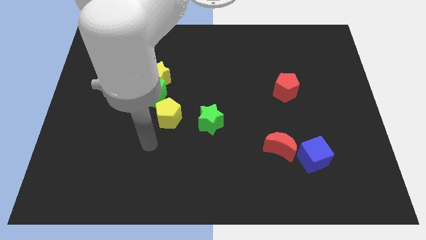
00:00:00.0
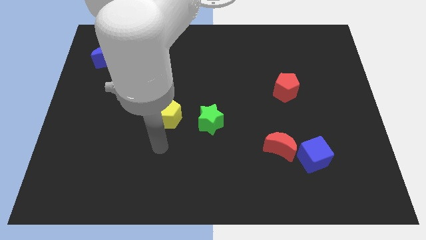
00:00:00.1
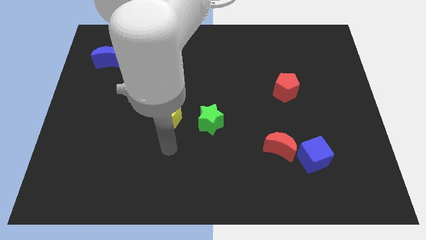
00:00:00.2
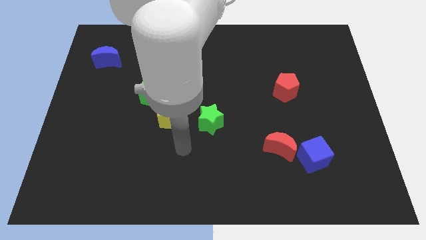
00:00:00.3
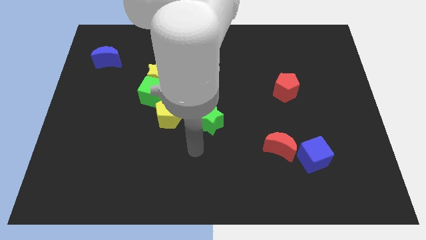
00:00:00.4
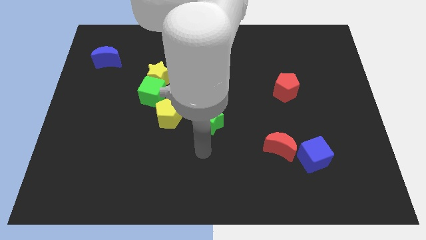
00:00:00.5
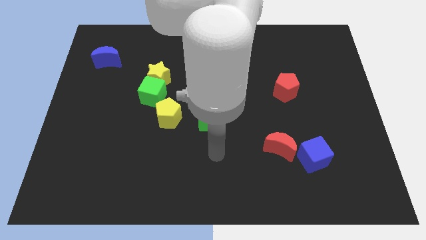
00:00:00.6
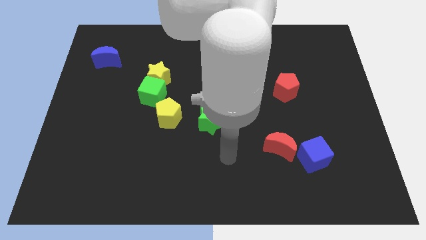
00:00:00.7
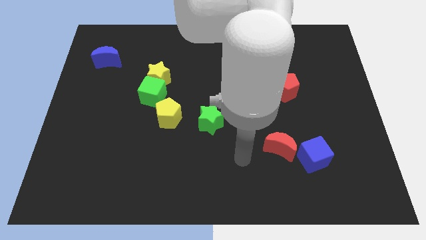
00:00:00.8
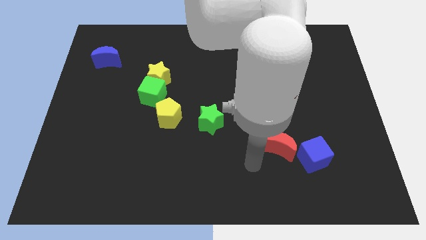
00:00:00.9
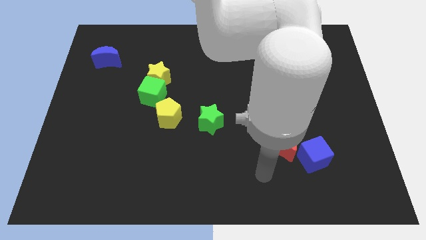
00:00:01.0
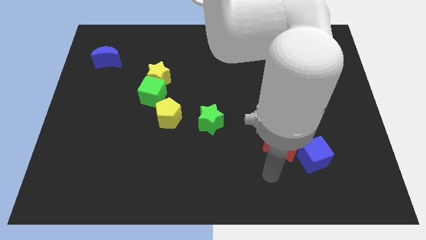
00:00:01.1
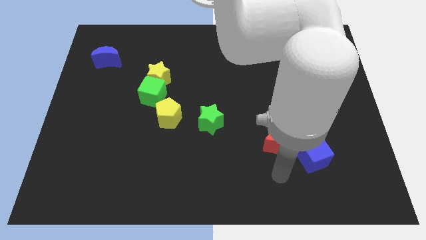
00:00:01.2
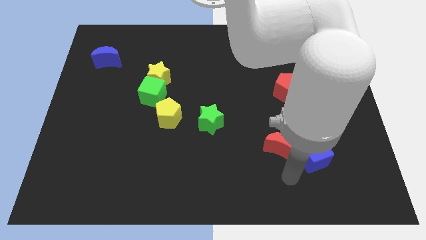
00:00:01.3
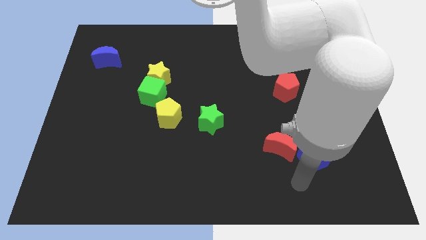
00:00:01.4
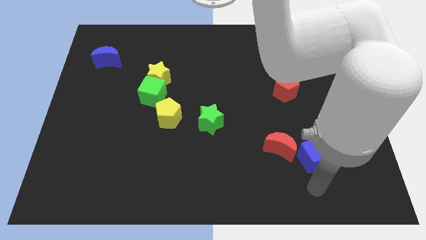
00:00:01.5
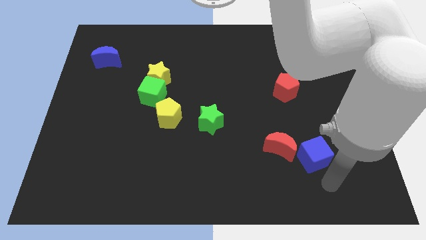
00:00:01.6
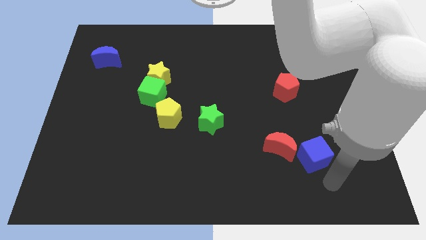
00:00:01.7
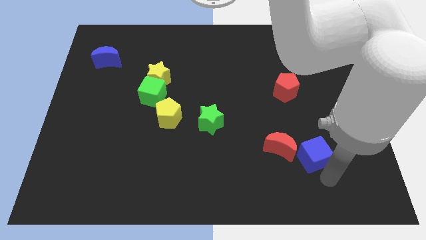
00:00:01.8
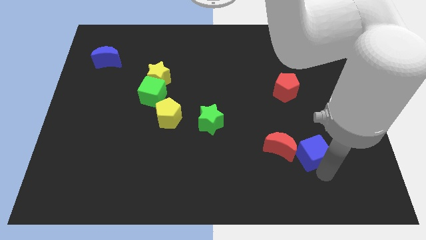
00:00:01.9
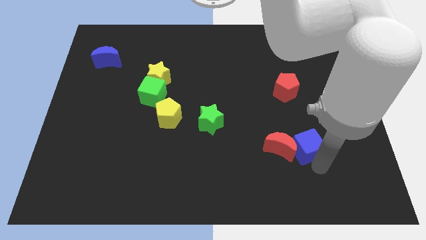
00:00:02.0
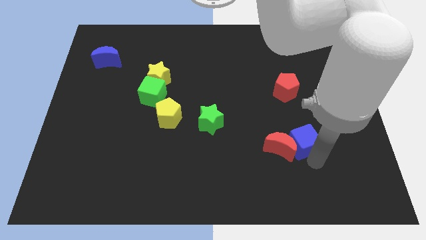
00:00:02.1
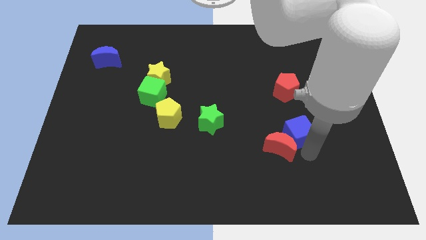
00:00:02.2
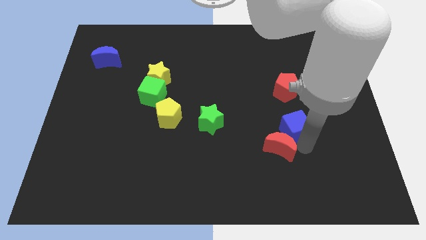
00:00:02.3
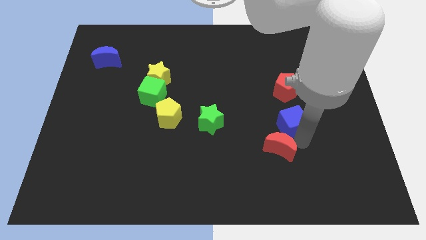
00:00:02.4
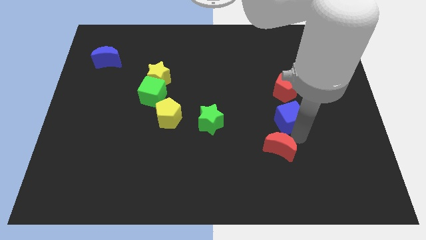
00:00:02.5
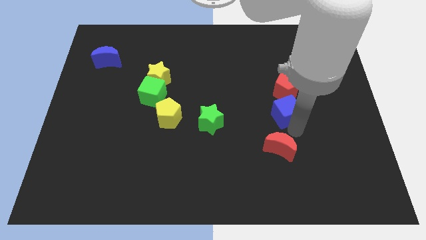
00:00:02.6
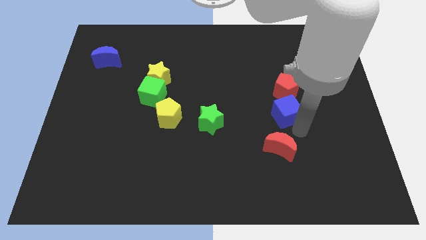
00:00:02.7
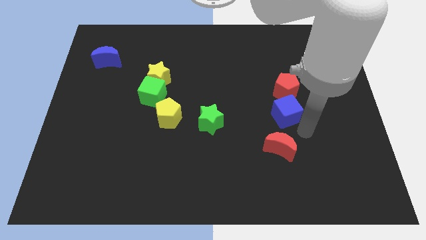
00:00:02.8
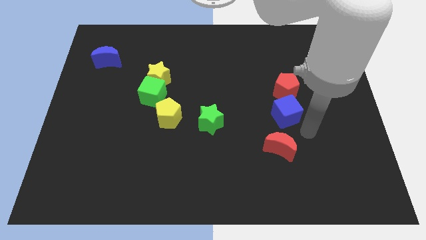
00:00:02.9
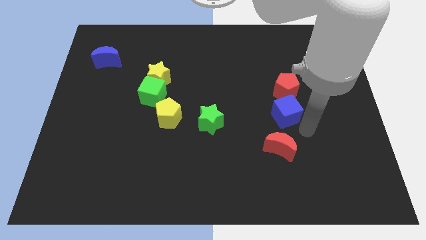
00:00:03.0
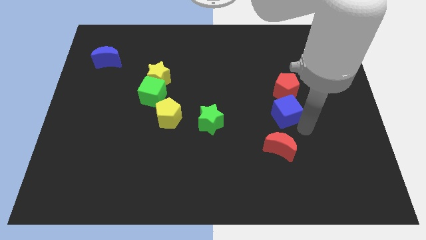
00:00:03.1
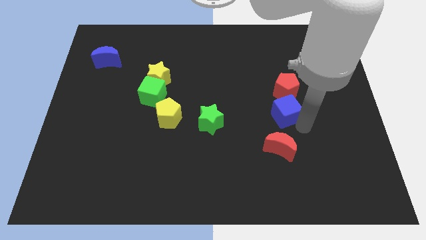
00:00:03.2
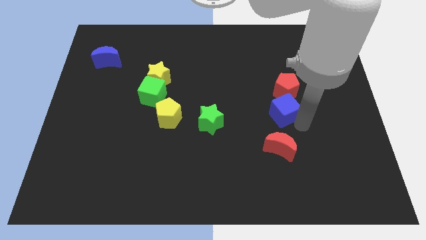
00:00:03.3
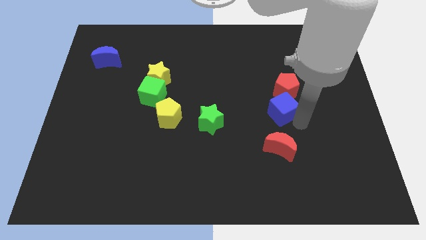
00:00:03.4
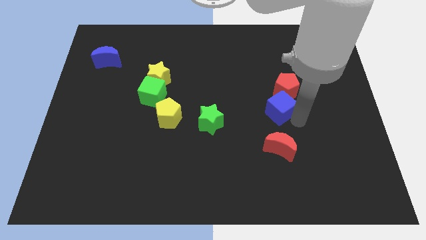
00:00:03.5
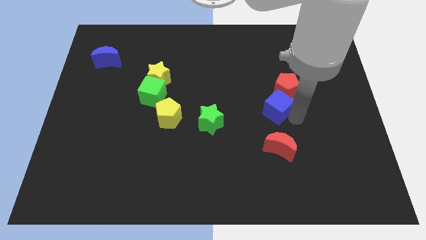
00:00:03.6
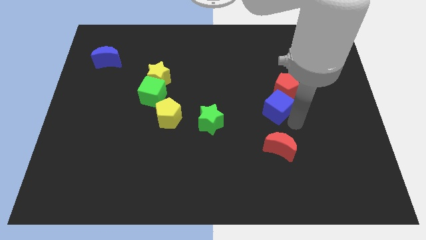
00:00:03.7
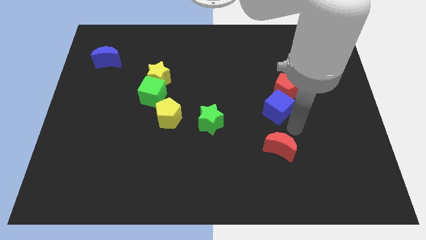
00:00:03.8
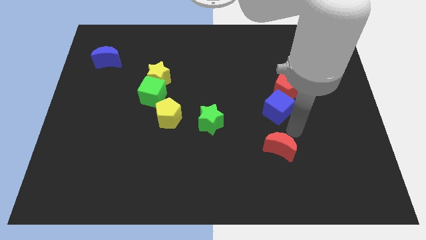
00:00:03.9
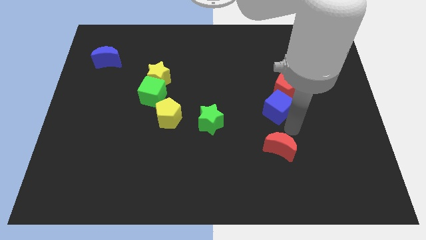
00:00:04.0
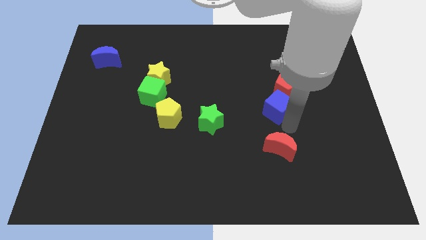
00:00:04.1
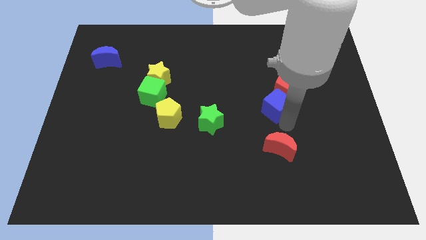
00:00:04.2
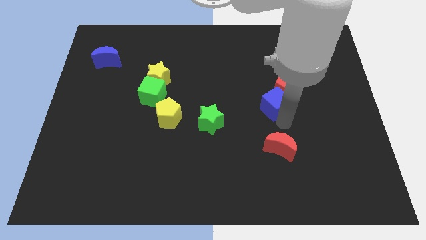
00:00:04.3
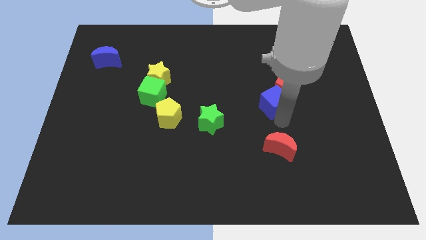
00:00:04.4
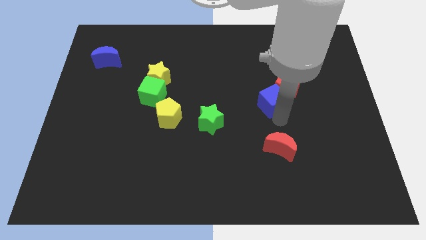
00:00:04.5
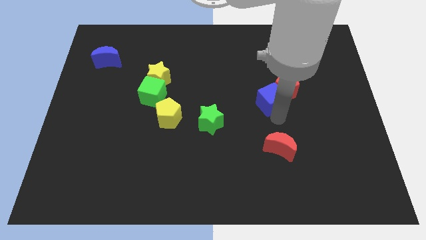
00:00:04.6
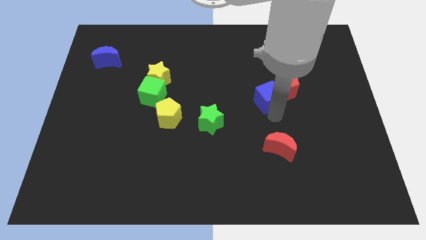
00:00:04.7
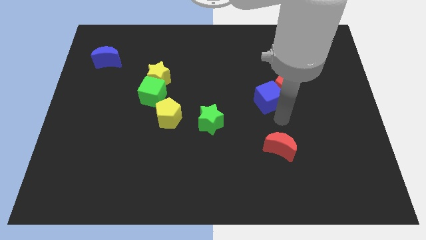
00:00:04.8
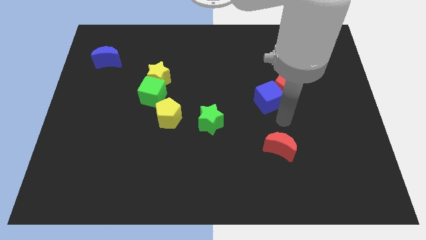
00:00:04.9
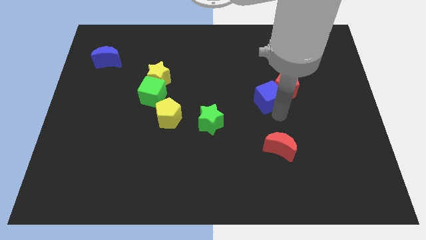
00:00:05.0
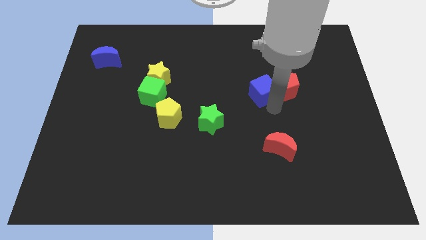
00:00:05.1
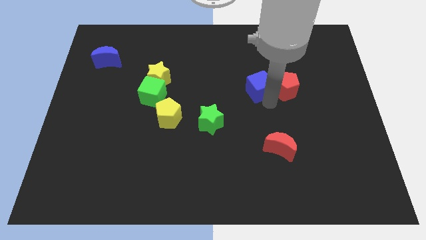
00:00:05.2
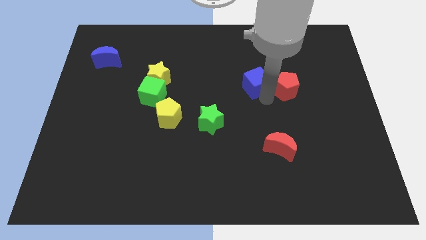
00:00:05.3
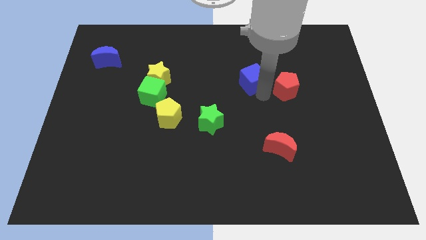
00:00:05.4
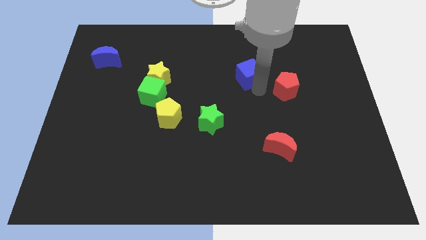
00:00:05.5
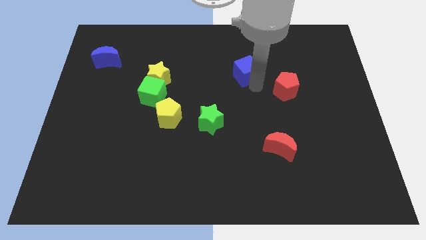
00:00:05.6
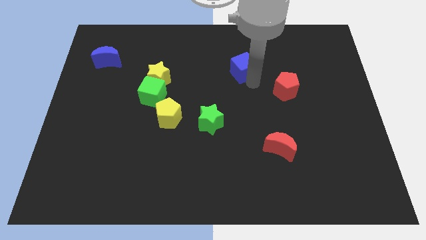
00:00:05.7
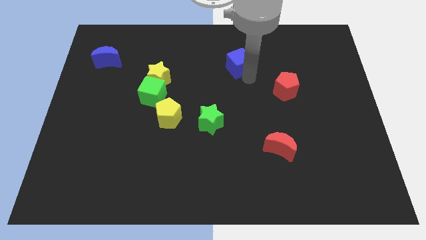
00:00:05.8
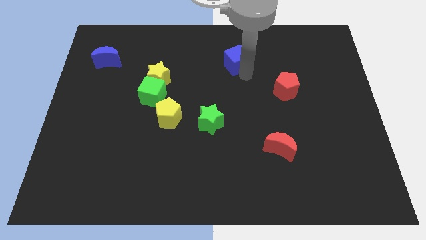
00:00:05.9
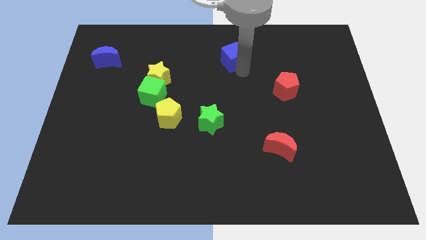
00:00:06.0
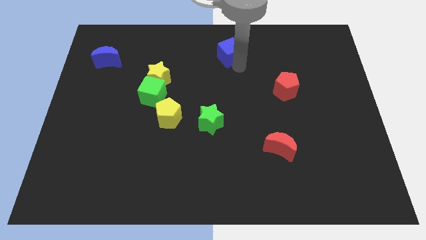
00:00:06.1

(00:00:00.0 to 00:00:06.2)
put the blue cube to the top

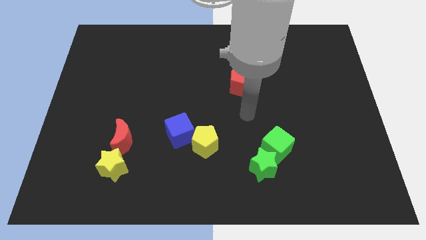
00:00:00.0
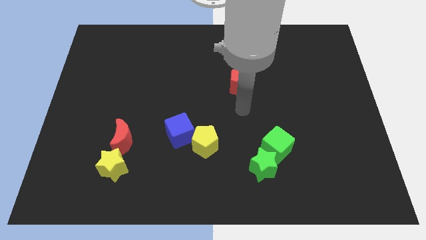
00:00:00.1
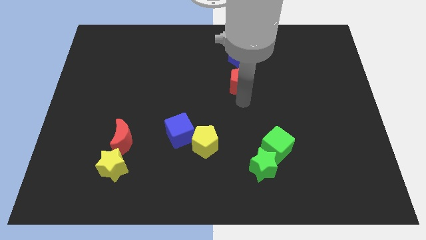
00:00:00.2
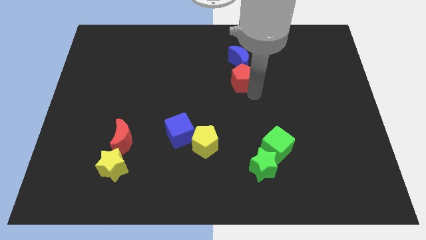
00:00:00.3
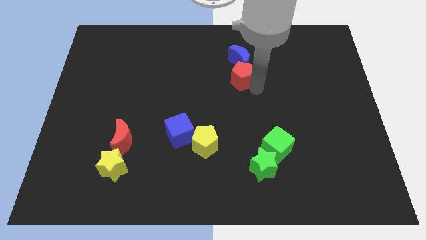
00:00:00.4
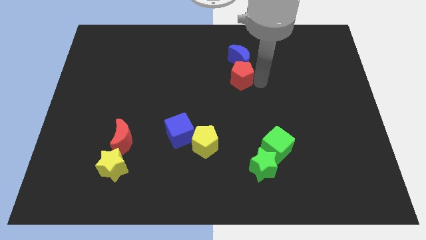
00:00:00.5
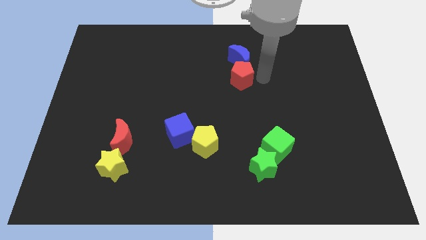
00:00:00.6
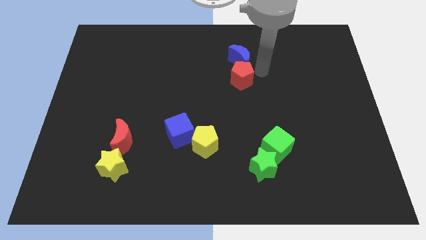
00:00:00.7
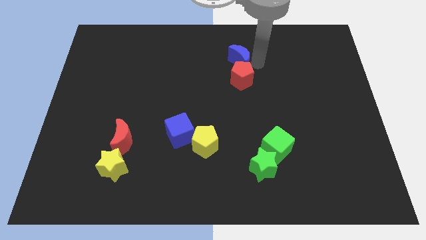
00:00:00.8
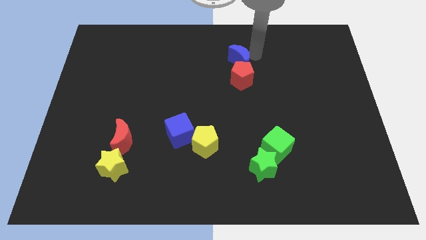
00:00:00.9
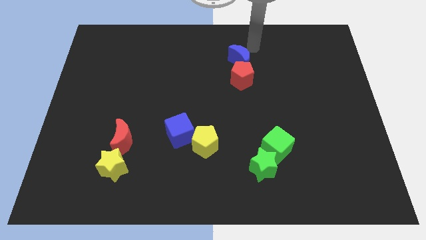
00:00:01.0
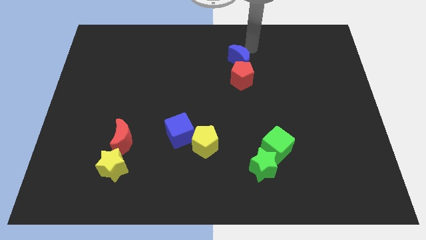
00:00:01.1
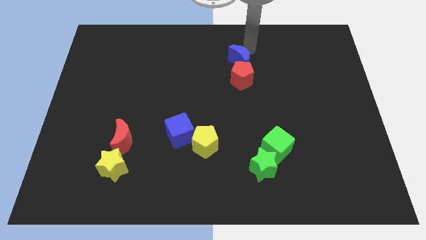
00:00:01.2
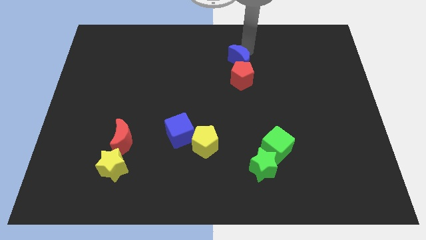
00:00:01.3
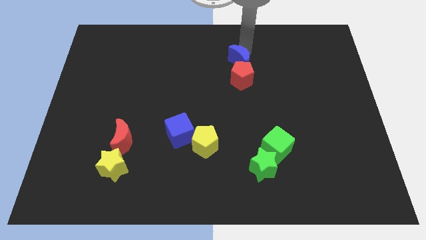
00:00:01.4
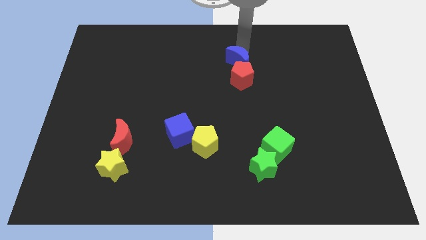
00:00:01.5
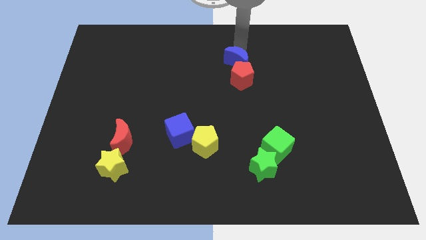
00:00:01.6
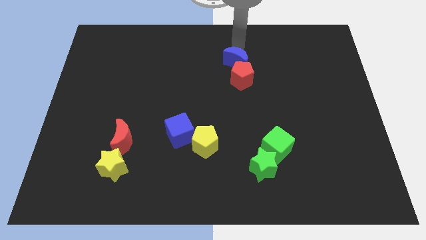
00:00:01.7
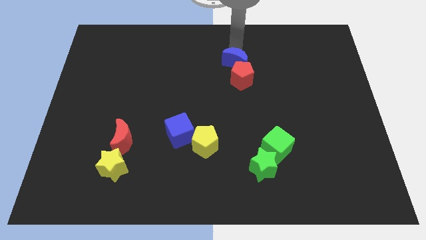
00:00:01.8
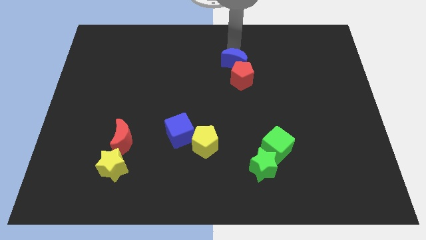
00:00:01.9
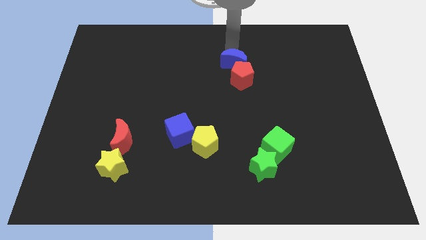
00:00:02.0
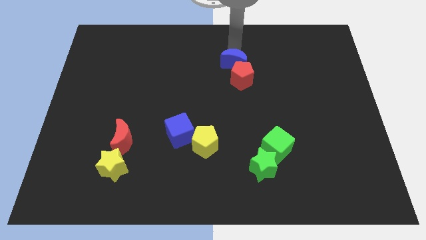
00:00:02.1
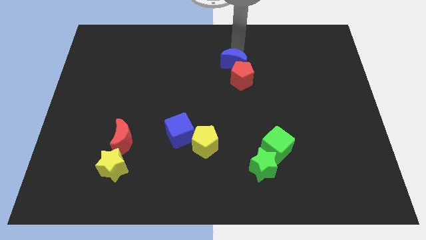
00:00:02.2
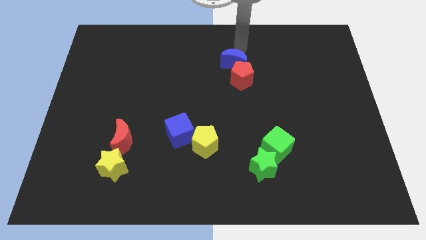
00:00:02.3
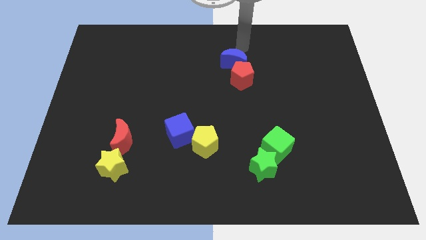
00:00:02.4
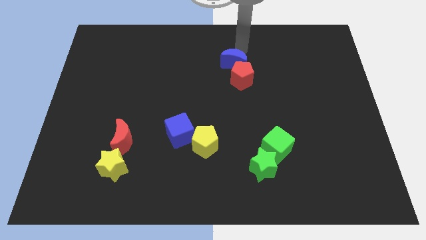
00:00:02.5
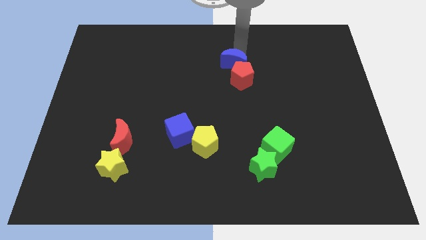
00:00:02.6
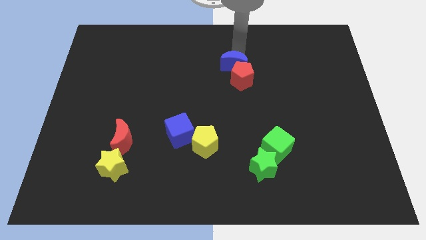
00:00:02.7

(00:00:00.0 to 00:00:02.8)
push the blue moon to the center of the board
